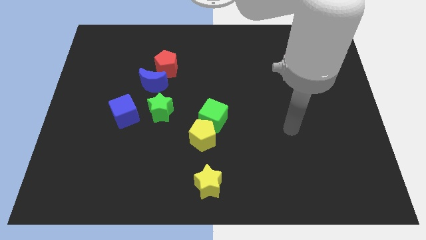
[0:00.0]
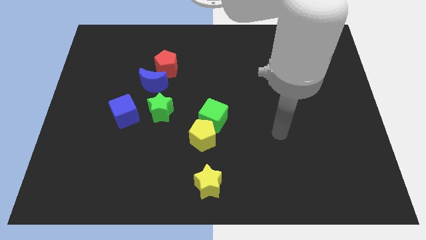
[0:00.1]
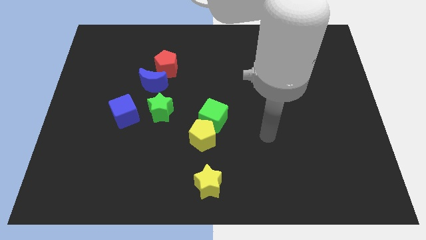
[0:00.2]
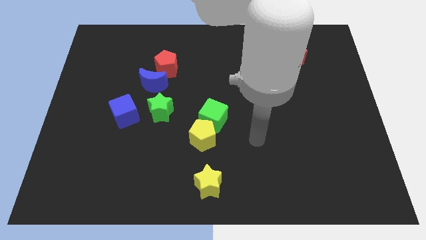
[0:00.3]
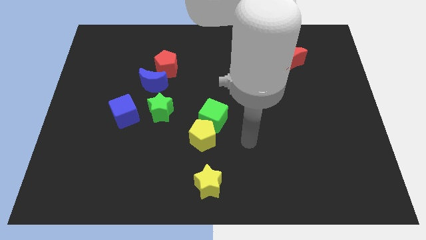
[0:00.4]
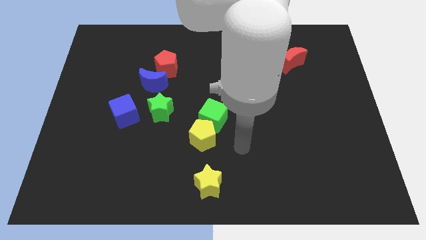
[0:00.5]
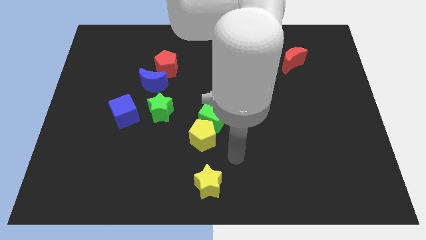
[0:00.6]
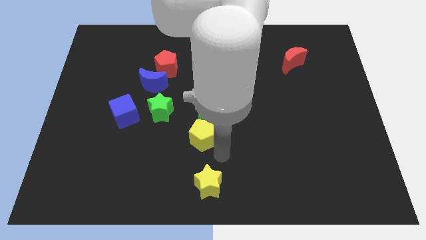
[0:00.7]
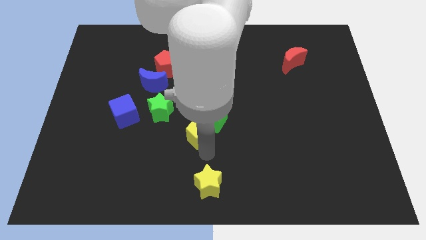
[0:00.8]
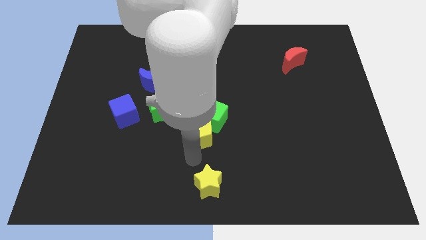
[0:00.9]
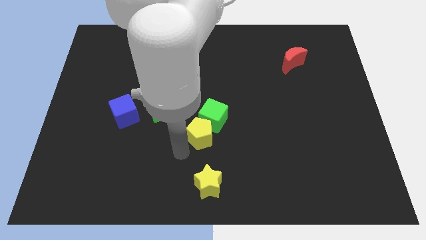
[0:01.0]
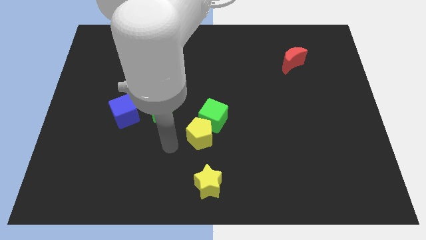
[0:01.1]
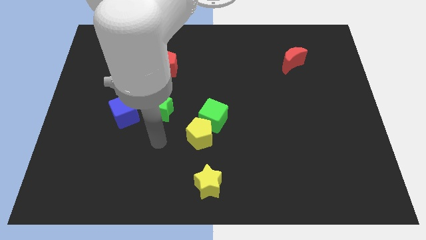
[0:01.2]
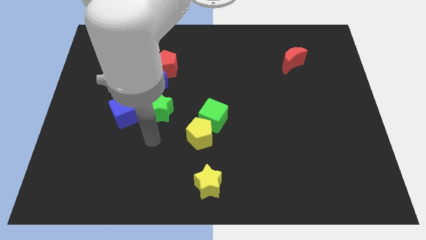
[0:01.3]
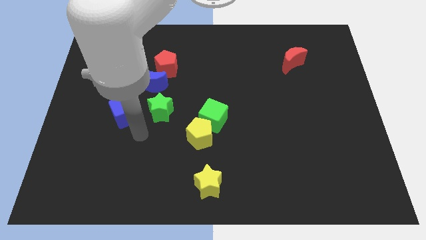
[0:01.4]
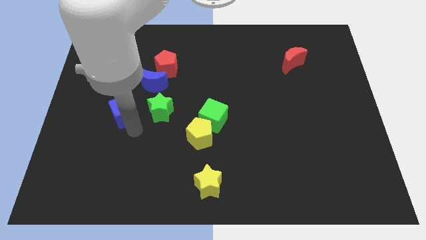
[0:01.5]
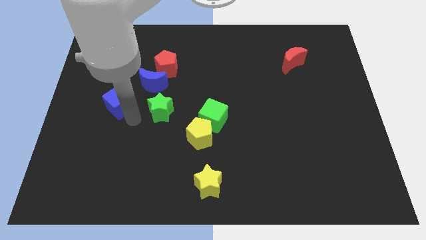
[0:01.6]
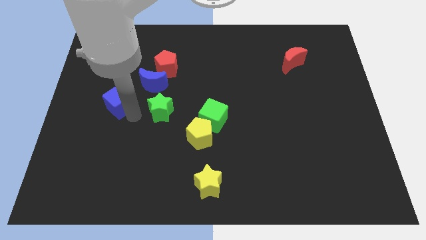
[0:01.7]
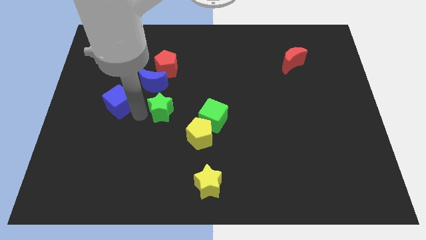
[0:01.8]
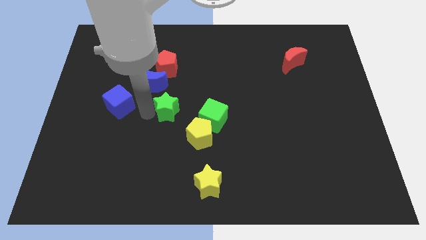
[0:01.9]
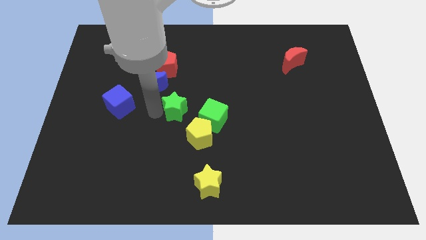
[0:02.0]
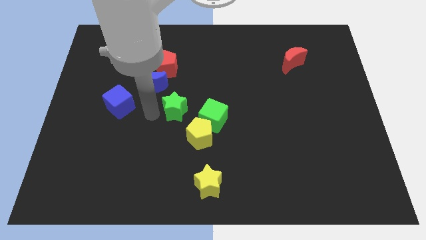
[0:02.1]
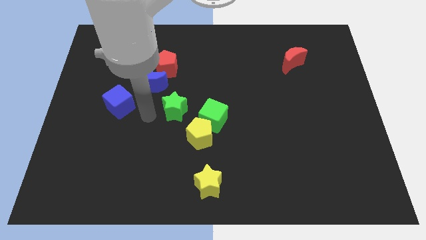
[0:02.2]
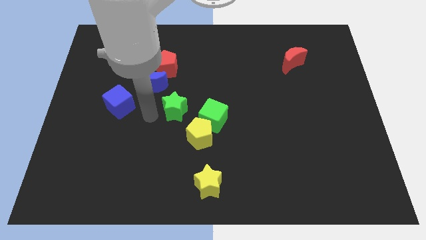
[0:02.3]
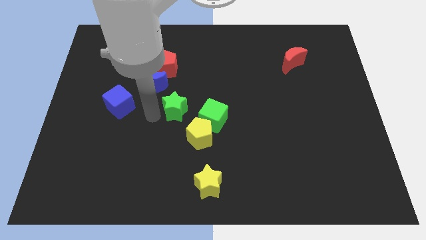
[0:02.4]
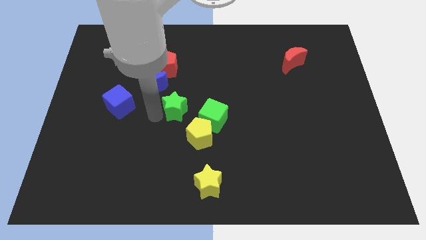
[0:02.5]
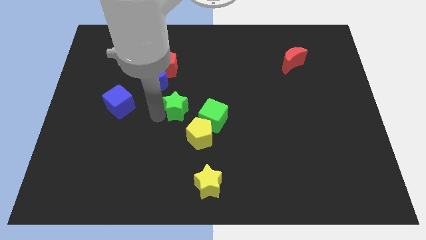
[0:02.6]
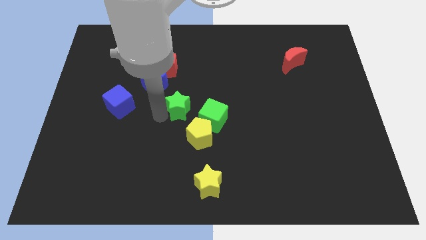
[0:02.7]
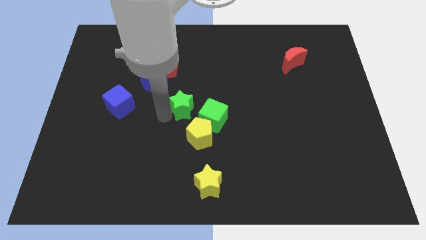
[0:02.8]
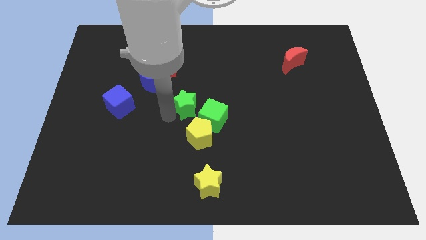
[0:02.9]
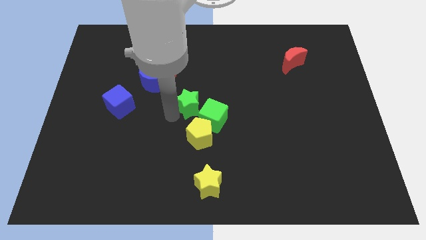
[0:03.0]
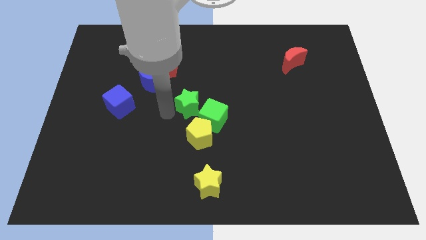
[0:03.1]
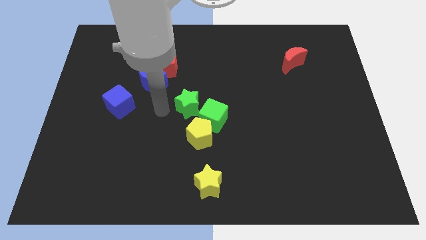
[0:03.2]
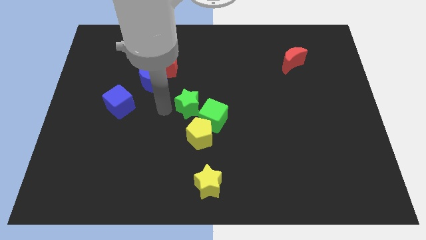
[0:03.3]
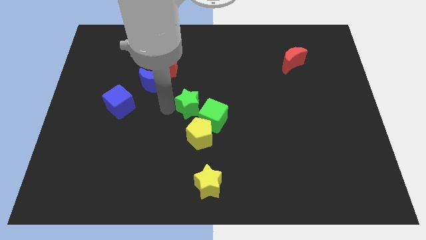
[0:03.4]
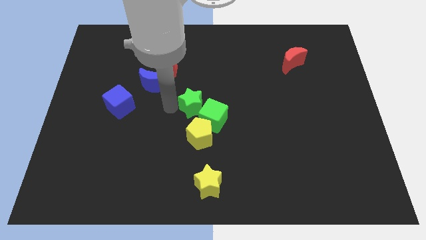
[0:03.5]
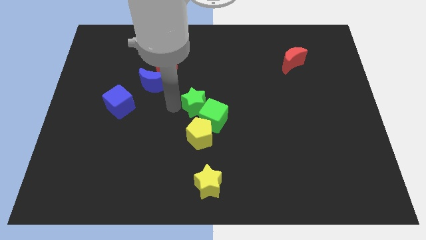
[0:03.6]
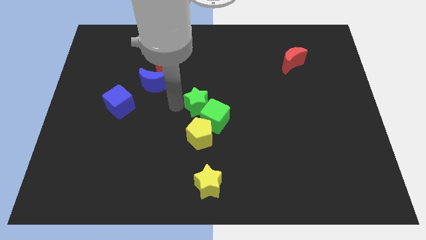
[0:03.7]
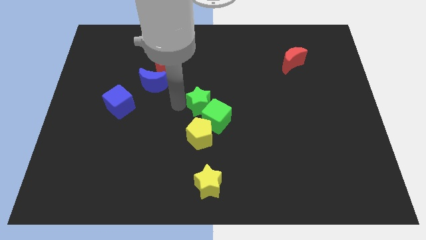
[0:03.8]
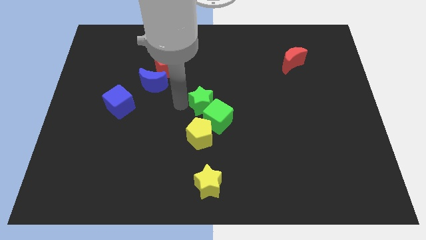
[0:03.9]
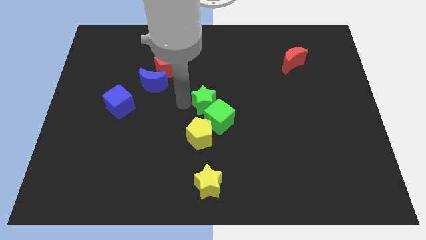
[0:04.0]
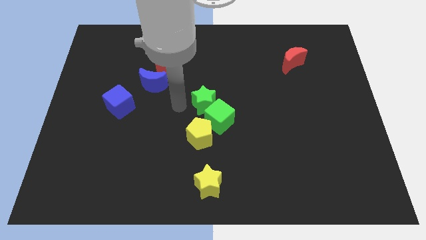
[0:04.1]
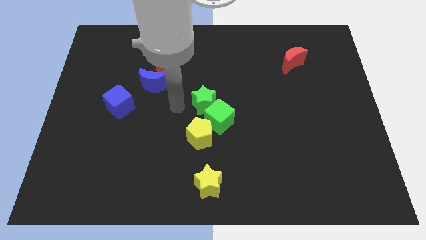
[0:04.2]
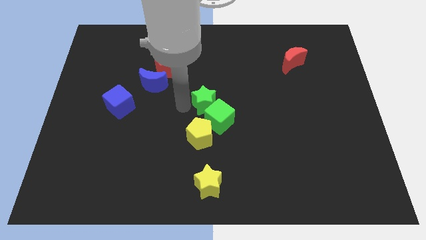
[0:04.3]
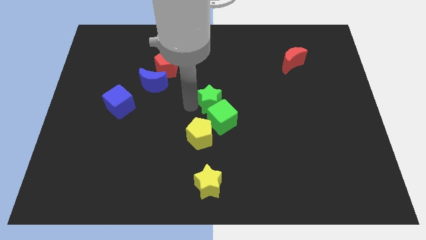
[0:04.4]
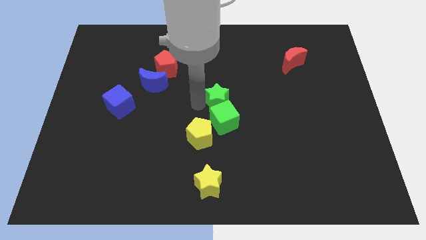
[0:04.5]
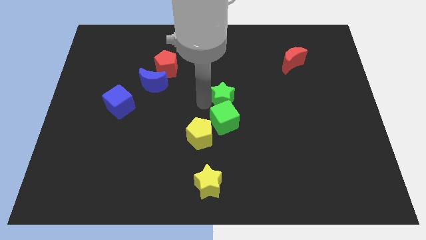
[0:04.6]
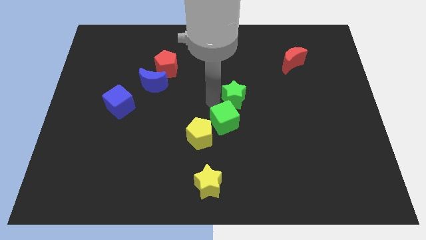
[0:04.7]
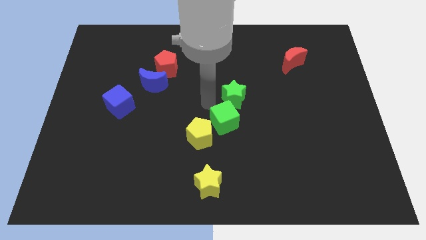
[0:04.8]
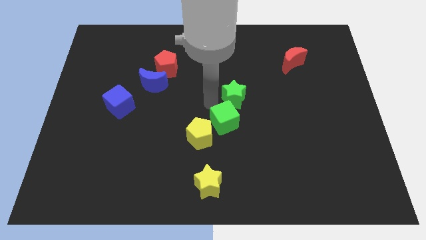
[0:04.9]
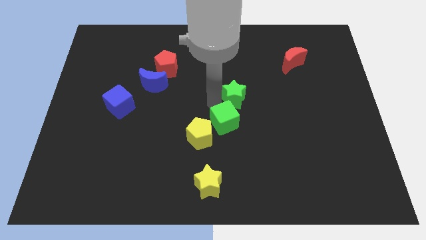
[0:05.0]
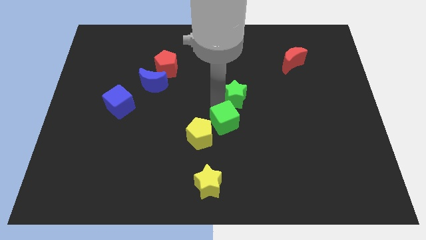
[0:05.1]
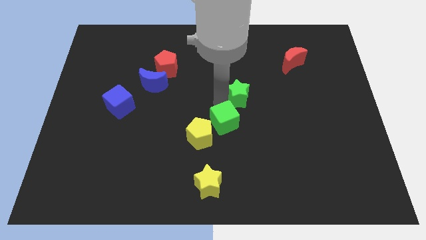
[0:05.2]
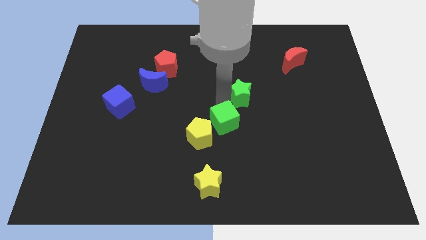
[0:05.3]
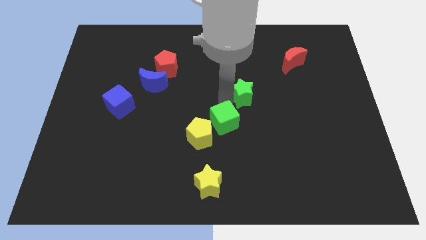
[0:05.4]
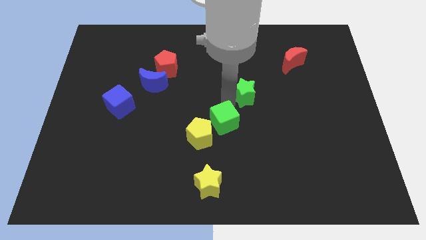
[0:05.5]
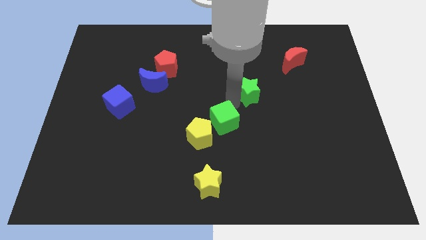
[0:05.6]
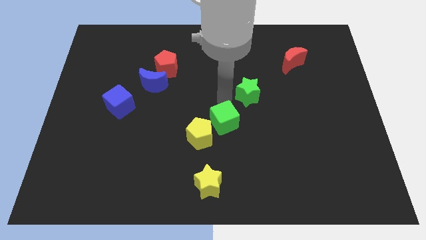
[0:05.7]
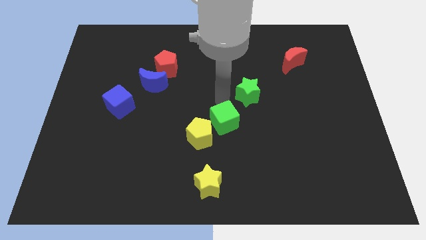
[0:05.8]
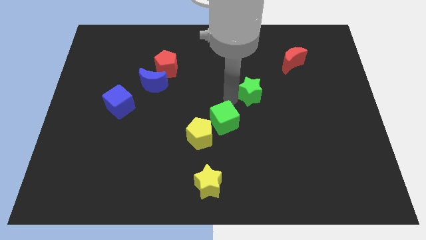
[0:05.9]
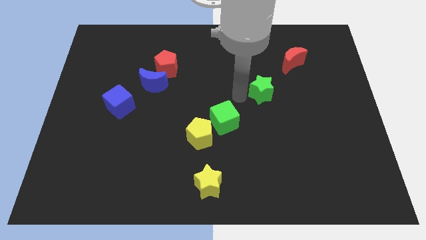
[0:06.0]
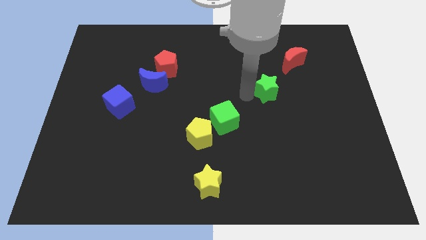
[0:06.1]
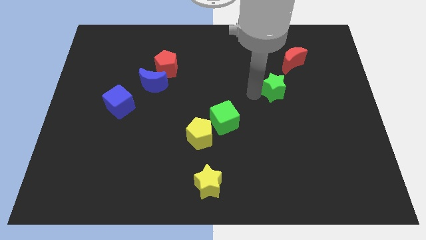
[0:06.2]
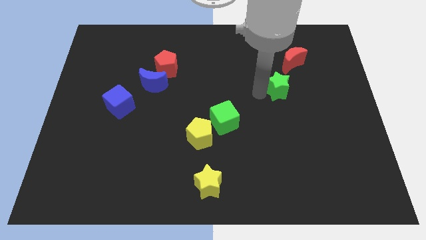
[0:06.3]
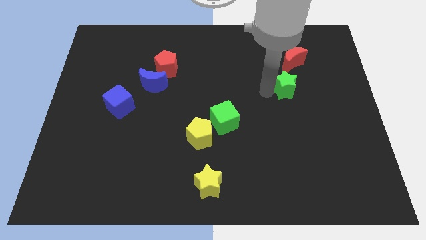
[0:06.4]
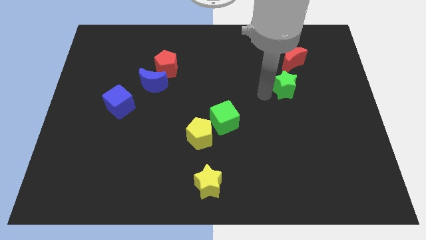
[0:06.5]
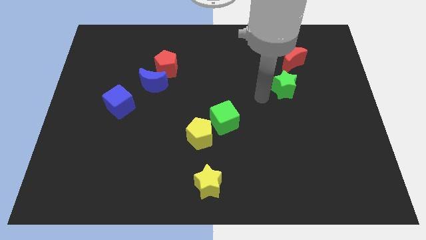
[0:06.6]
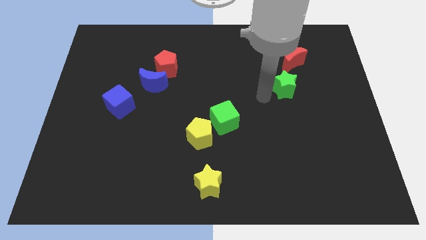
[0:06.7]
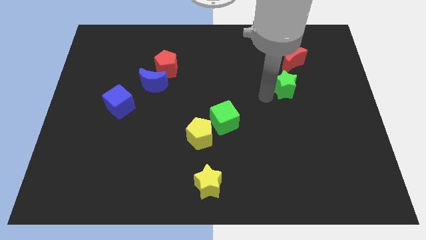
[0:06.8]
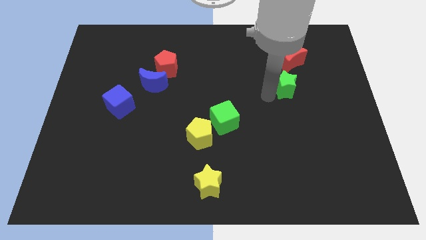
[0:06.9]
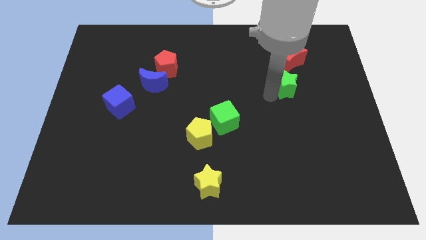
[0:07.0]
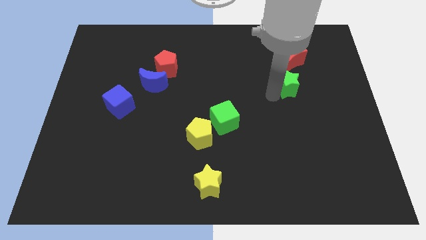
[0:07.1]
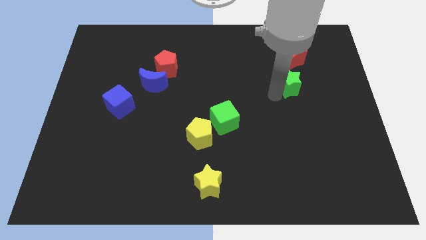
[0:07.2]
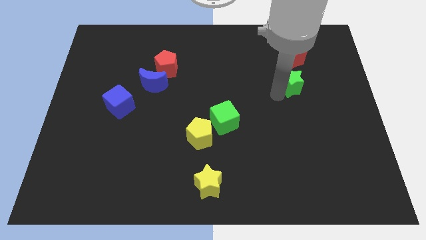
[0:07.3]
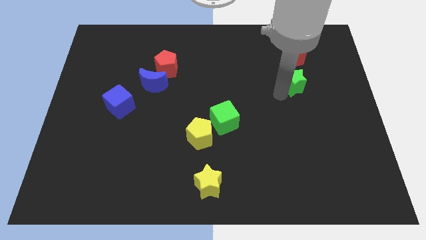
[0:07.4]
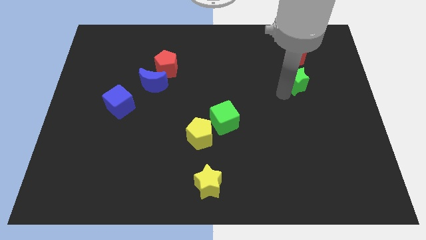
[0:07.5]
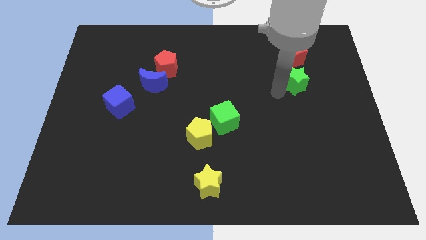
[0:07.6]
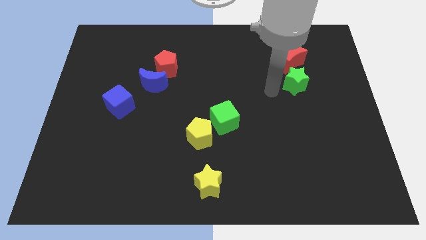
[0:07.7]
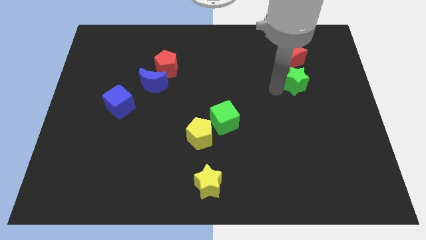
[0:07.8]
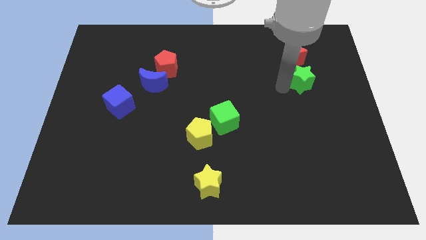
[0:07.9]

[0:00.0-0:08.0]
move the green star diagonally down and to the right of the red moon
